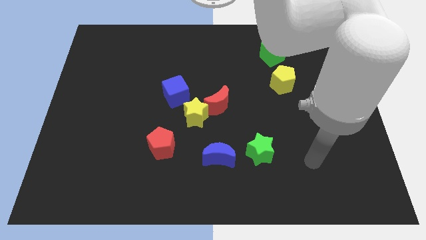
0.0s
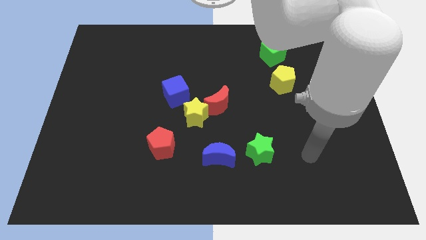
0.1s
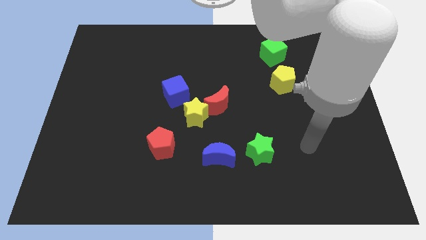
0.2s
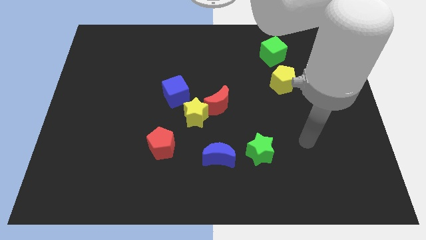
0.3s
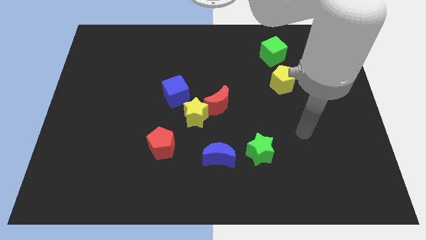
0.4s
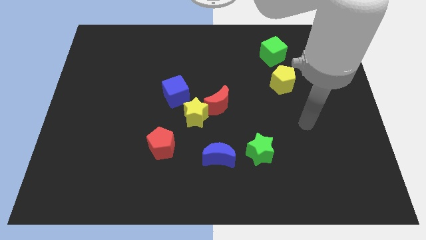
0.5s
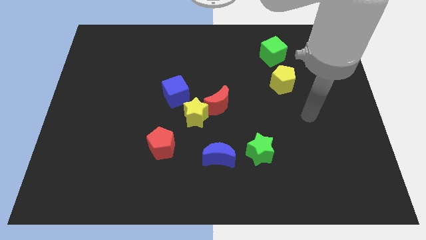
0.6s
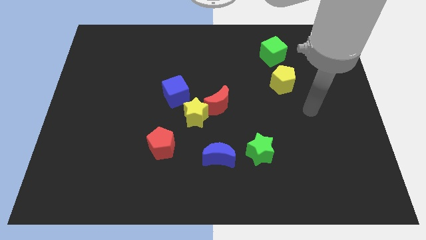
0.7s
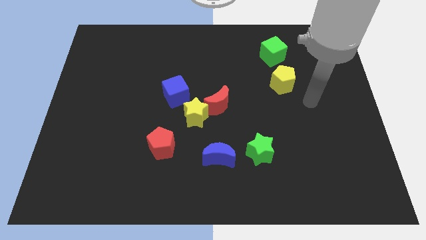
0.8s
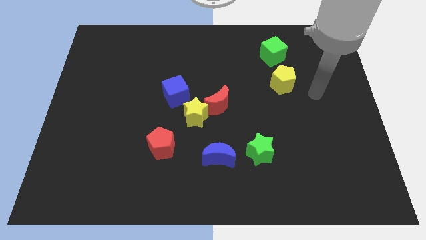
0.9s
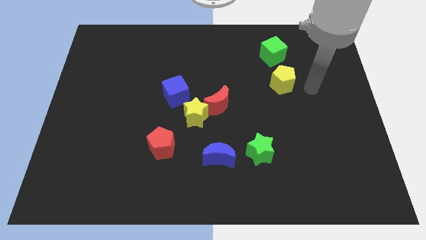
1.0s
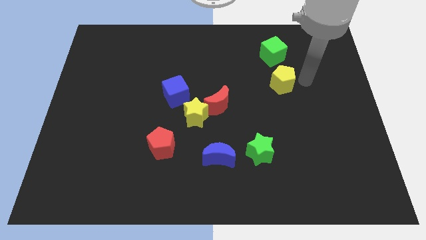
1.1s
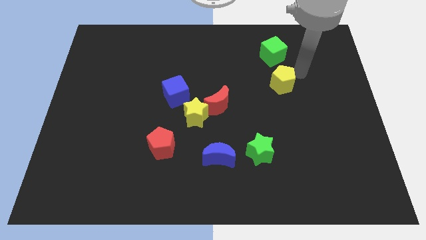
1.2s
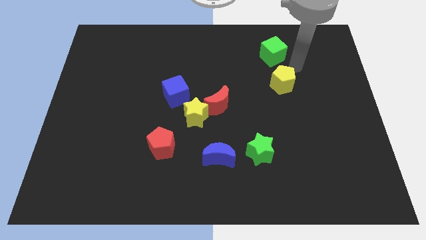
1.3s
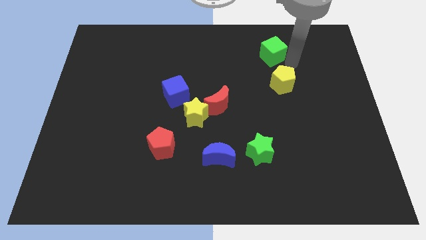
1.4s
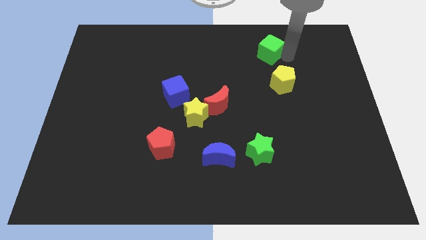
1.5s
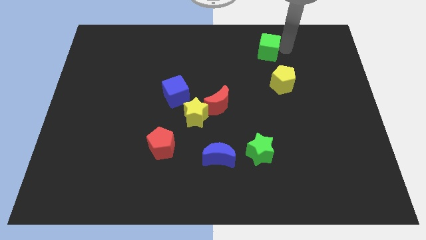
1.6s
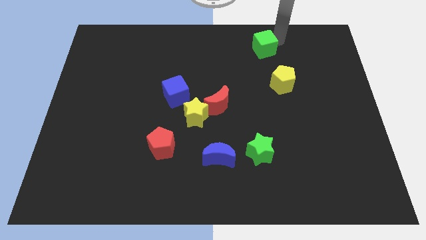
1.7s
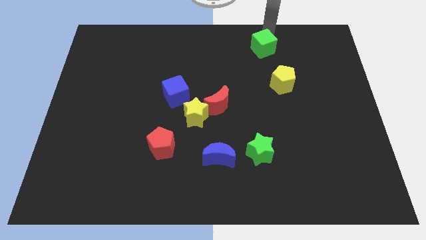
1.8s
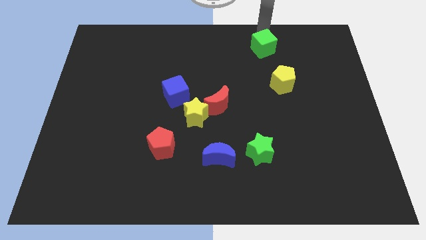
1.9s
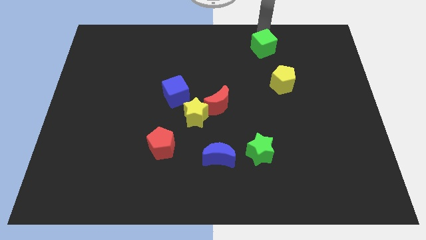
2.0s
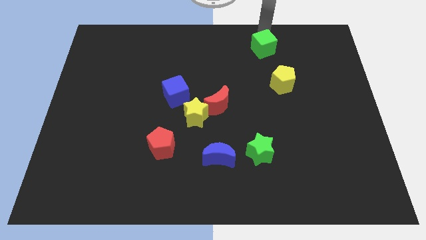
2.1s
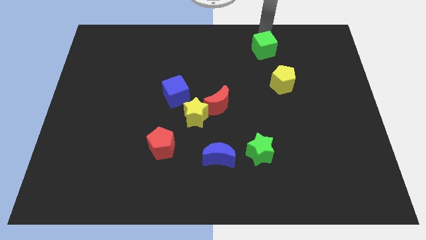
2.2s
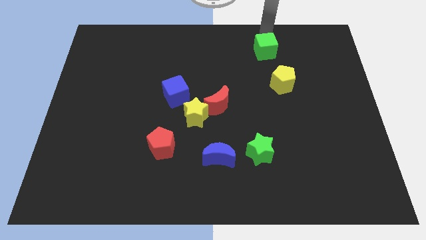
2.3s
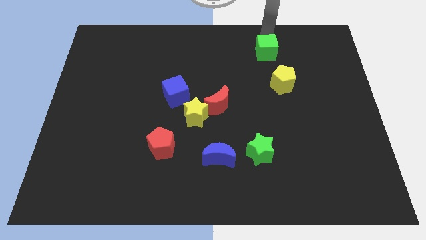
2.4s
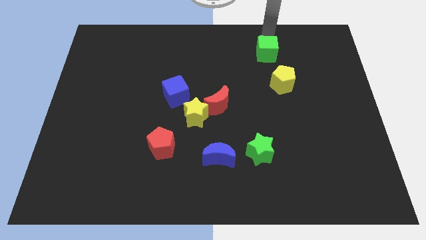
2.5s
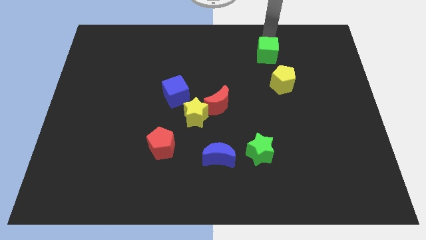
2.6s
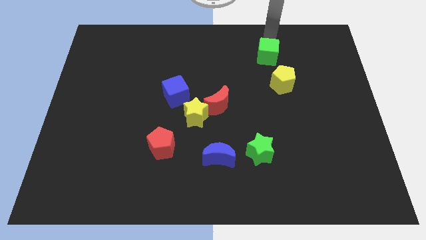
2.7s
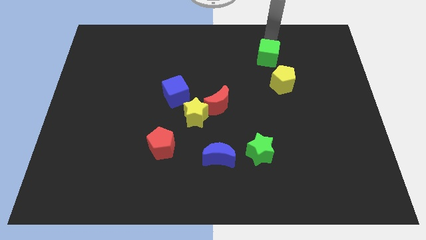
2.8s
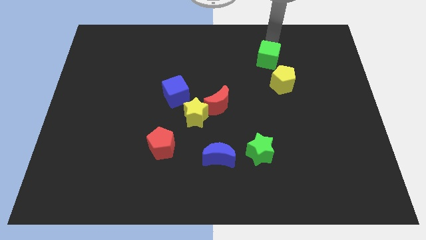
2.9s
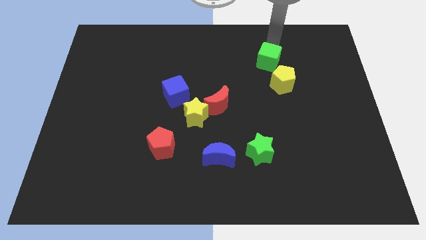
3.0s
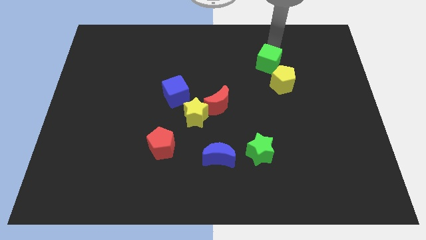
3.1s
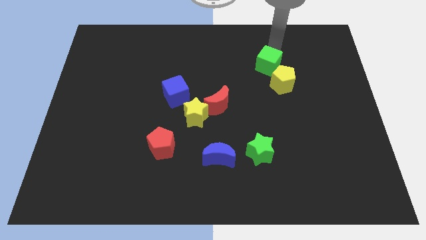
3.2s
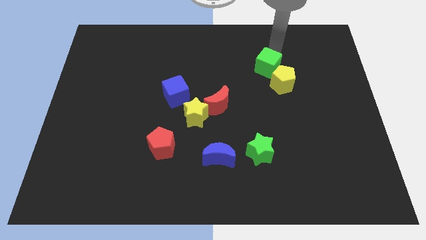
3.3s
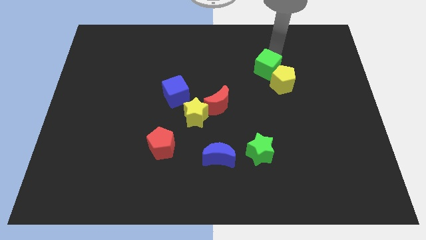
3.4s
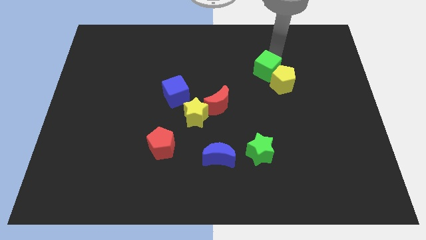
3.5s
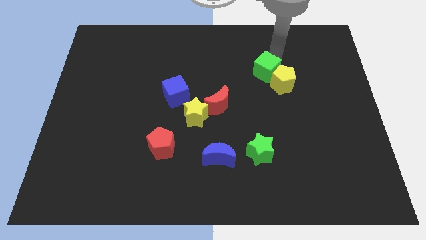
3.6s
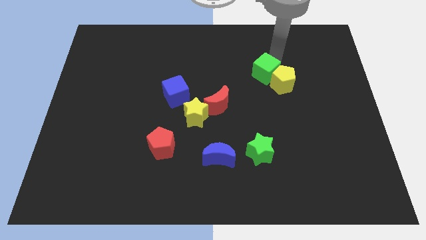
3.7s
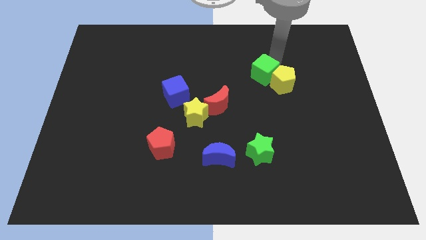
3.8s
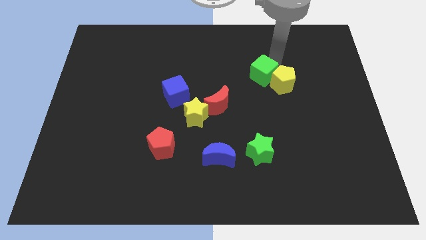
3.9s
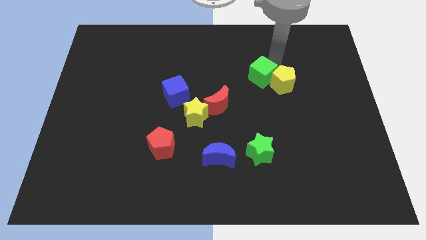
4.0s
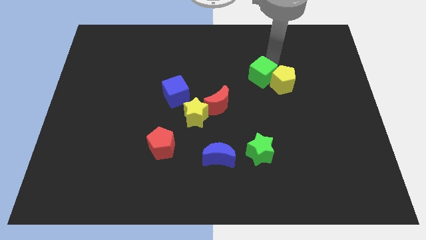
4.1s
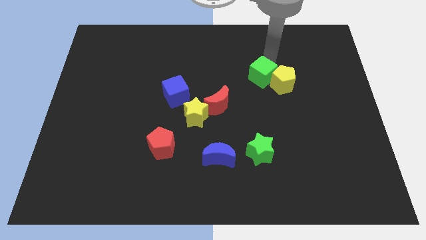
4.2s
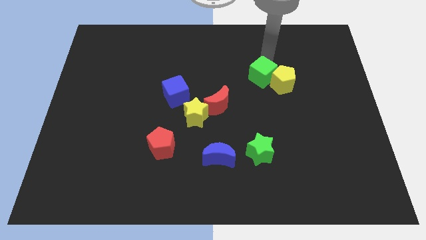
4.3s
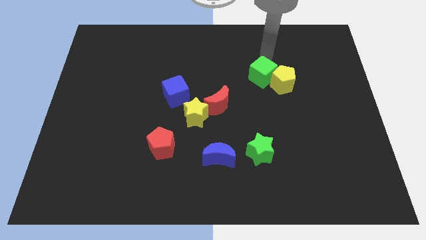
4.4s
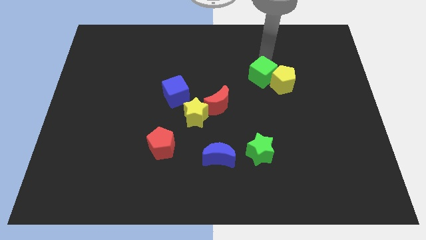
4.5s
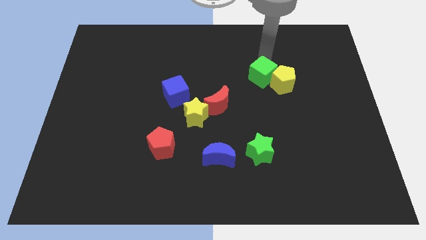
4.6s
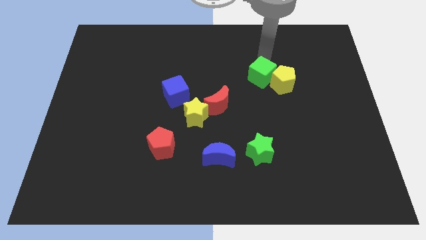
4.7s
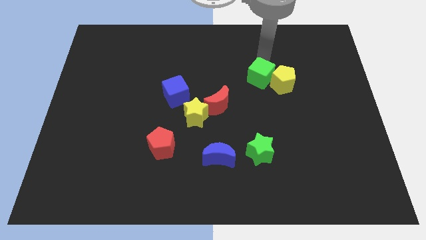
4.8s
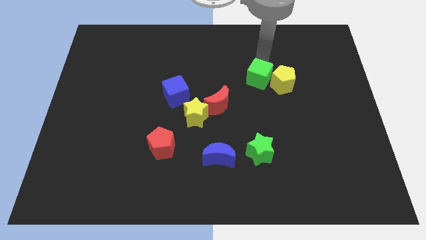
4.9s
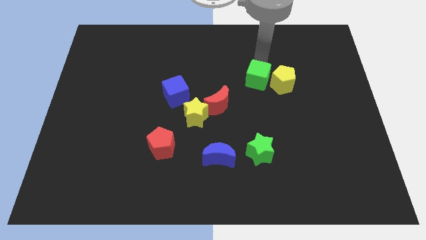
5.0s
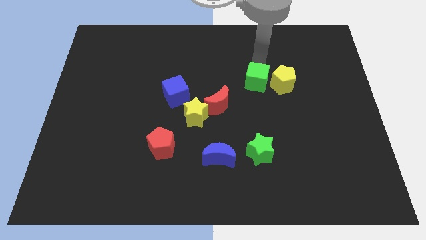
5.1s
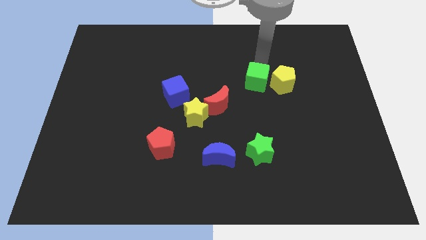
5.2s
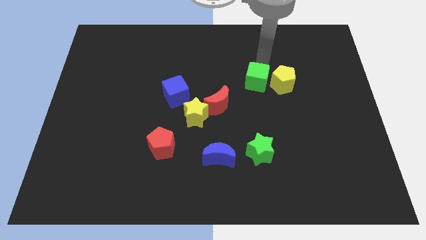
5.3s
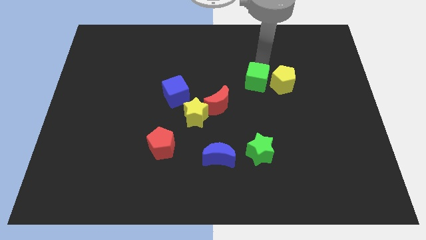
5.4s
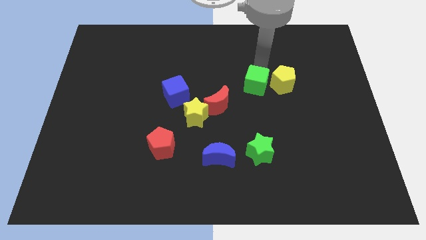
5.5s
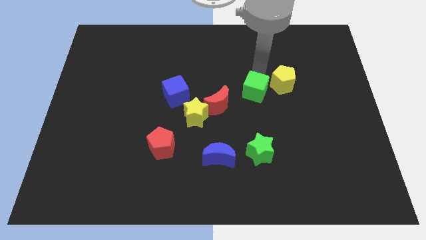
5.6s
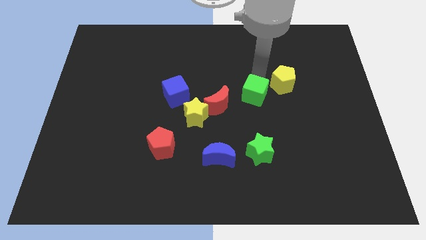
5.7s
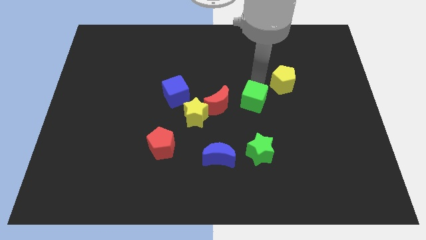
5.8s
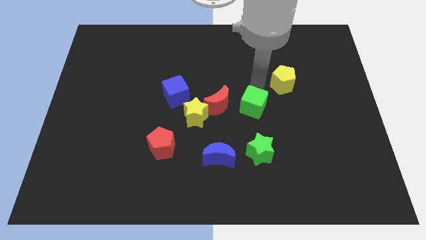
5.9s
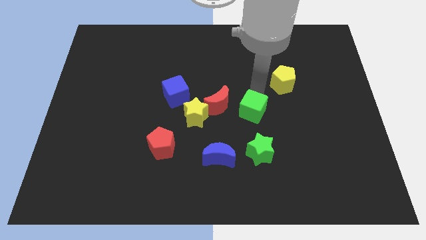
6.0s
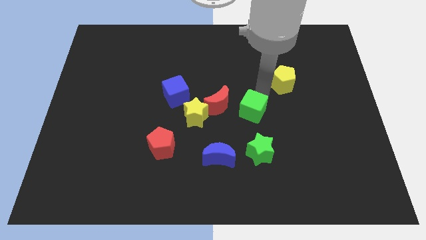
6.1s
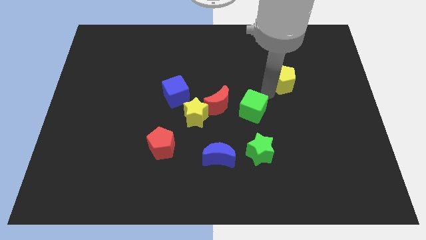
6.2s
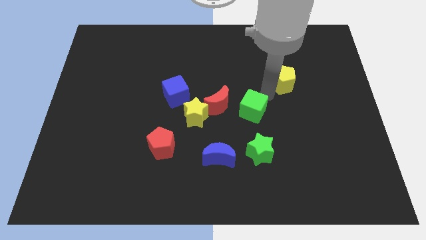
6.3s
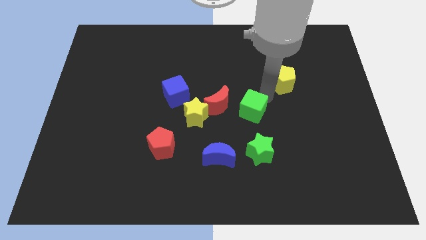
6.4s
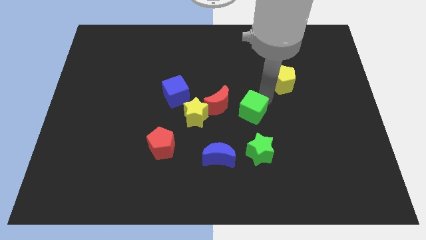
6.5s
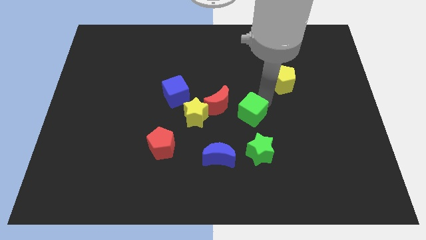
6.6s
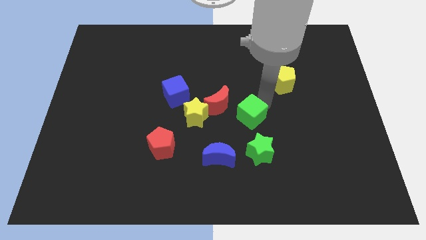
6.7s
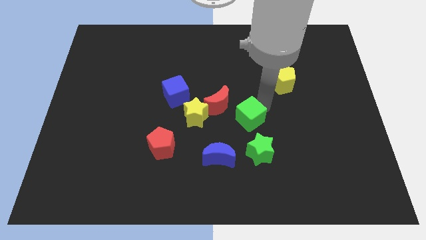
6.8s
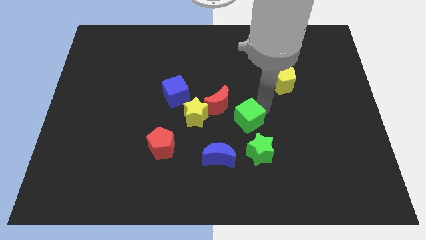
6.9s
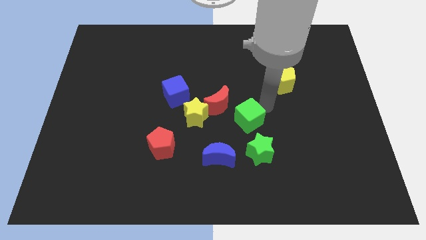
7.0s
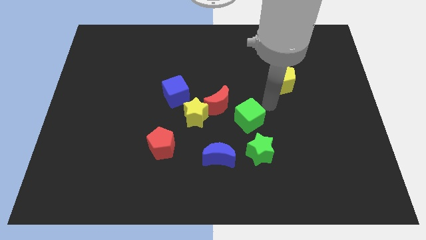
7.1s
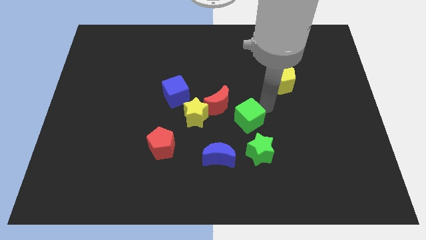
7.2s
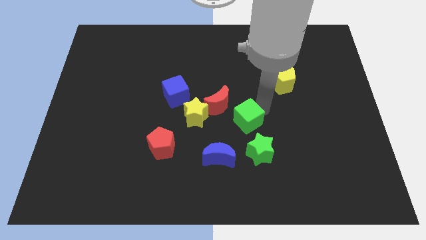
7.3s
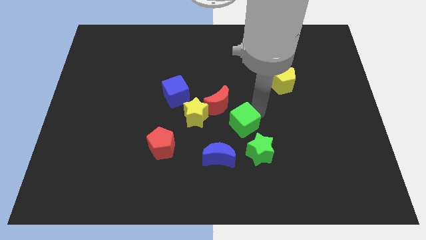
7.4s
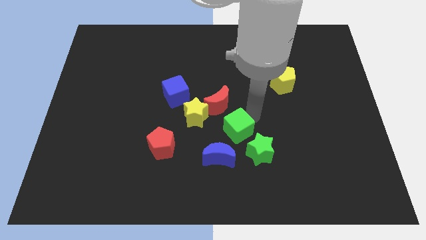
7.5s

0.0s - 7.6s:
put the green cube diagonally down and to the right of the yellow star
